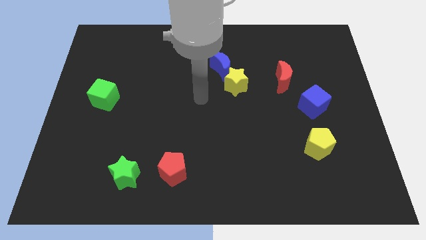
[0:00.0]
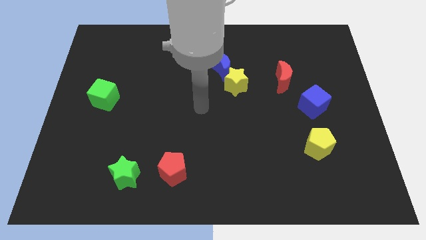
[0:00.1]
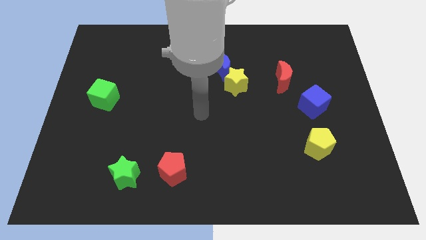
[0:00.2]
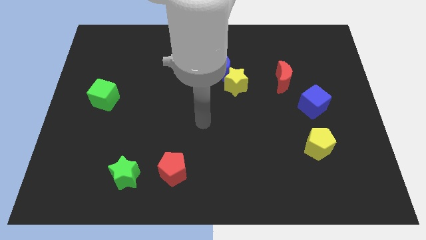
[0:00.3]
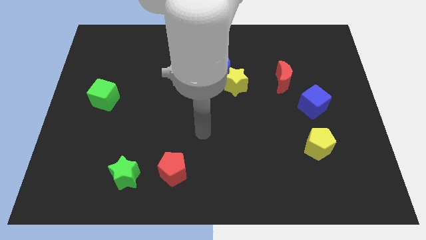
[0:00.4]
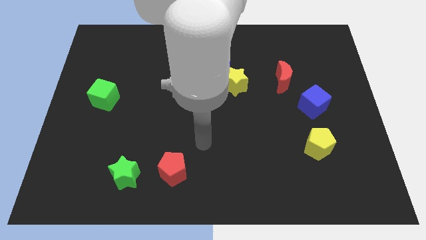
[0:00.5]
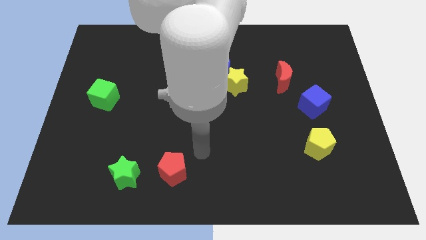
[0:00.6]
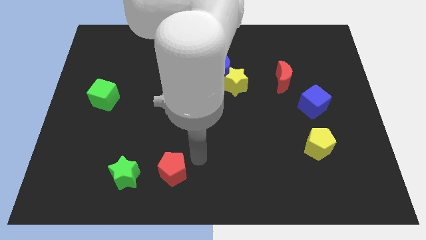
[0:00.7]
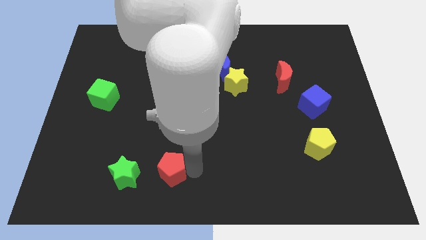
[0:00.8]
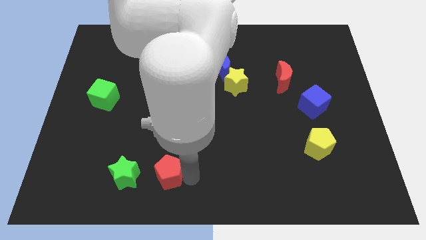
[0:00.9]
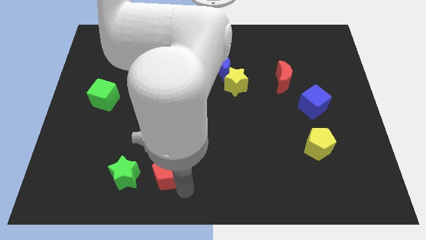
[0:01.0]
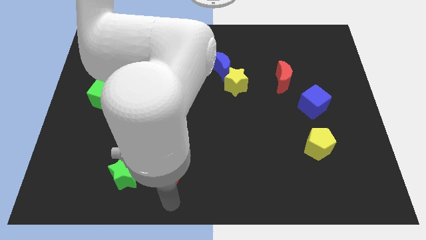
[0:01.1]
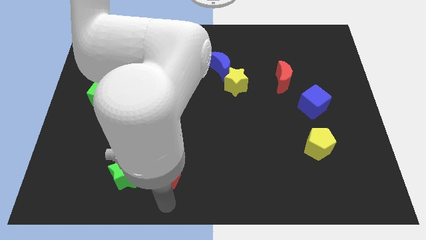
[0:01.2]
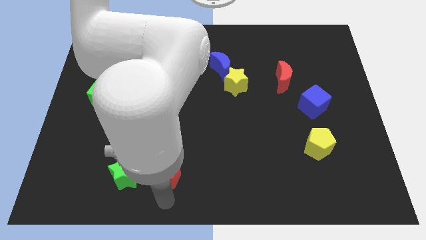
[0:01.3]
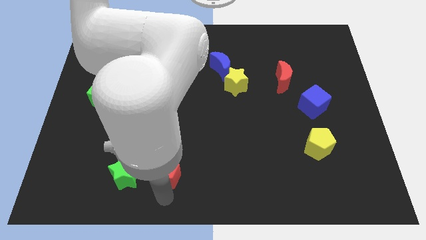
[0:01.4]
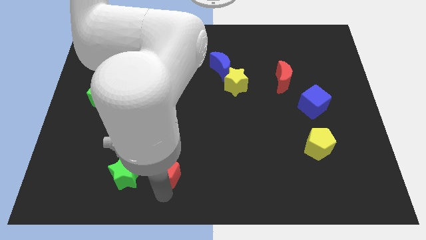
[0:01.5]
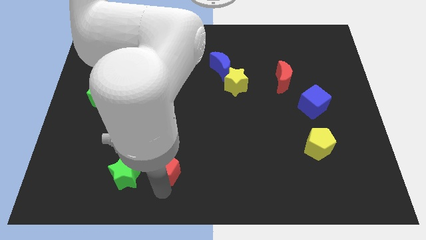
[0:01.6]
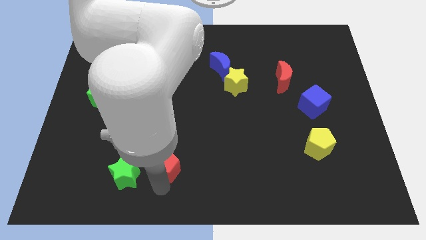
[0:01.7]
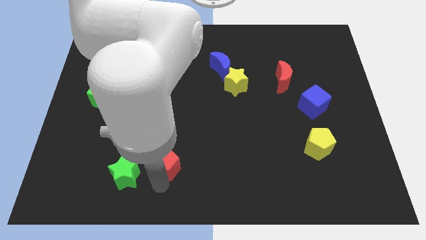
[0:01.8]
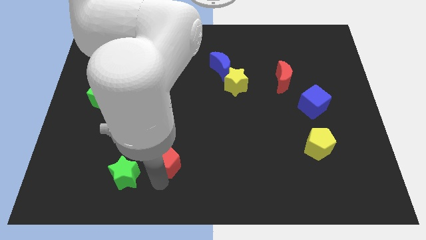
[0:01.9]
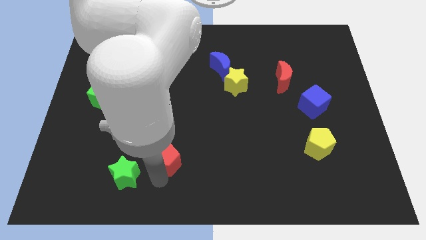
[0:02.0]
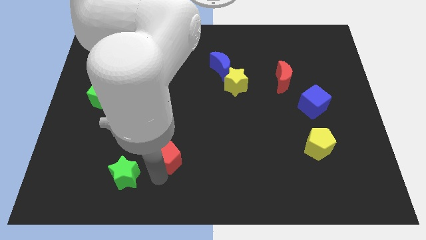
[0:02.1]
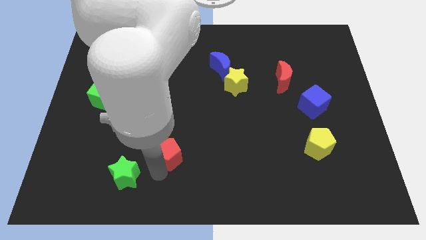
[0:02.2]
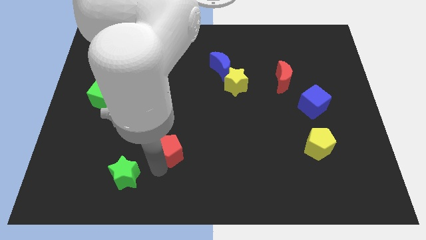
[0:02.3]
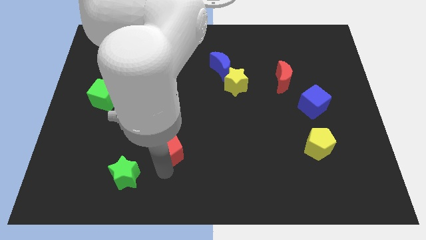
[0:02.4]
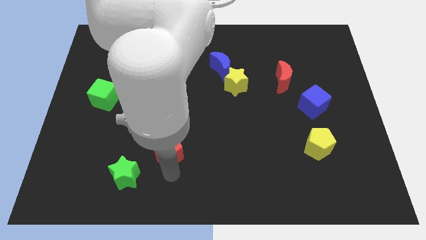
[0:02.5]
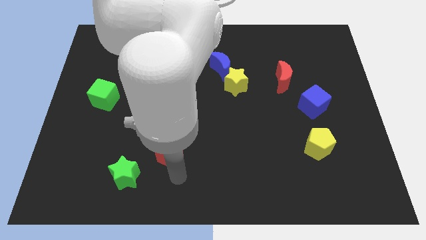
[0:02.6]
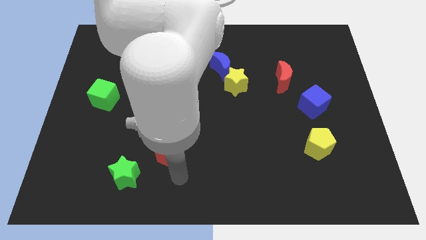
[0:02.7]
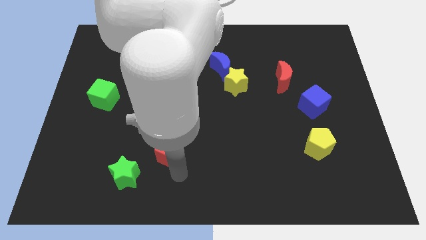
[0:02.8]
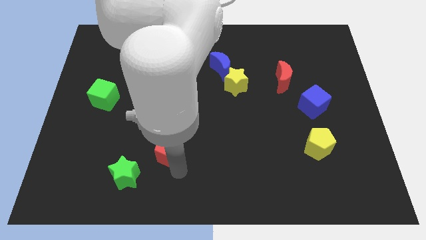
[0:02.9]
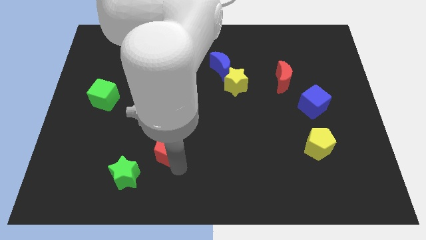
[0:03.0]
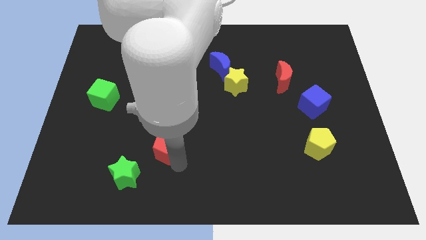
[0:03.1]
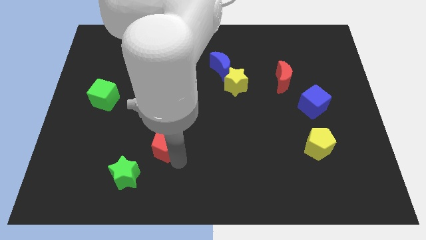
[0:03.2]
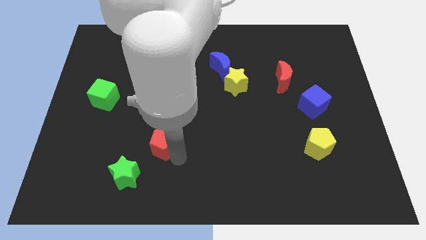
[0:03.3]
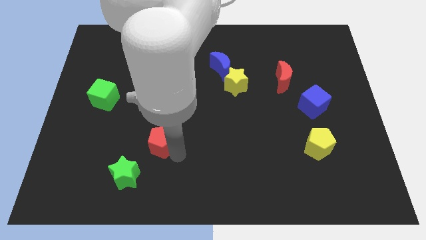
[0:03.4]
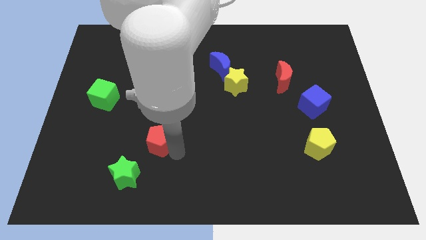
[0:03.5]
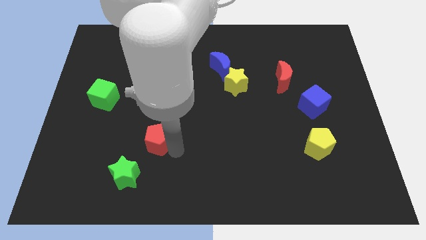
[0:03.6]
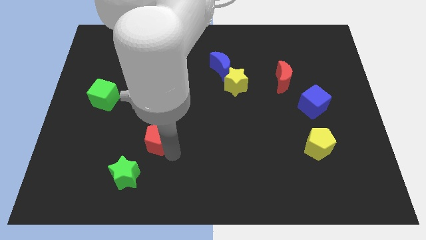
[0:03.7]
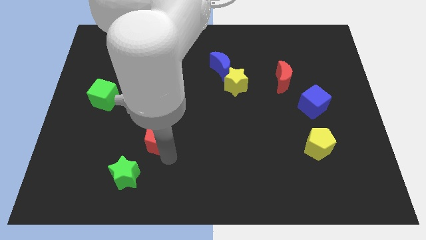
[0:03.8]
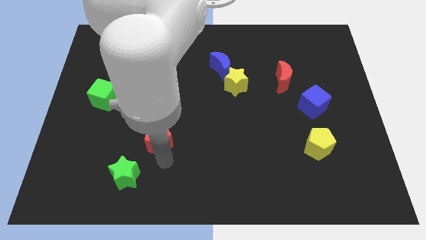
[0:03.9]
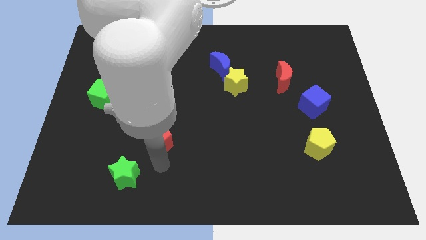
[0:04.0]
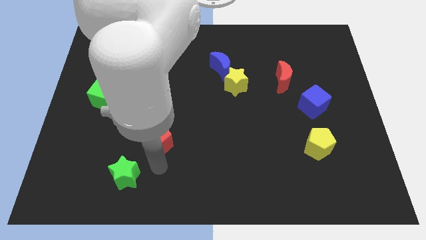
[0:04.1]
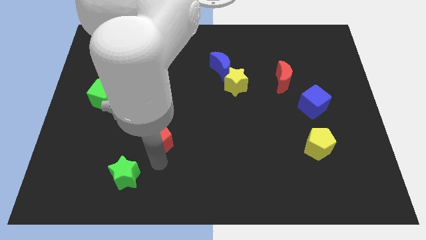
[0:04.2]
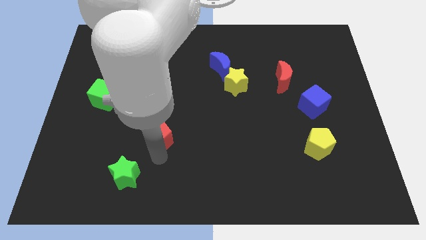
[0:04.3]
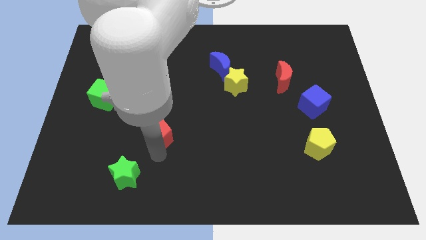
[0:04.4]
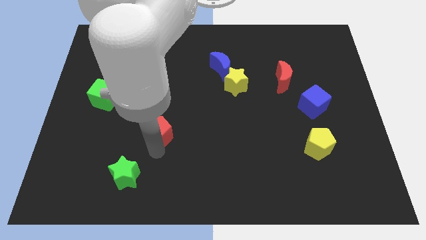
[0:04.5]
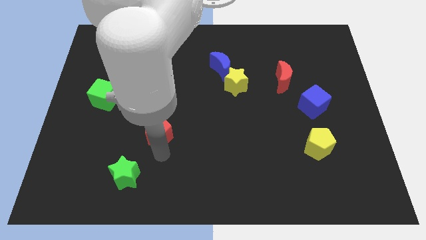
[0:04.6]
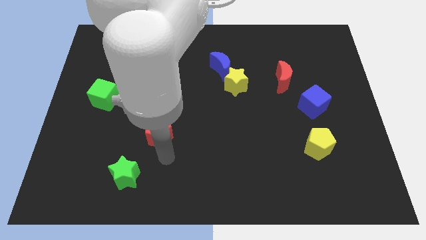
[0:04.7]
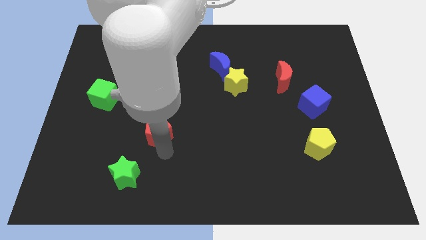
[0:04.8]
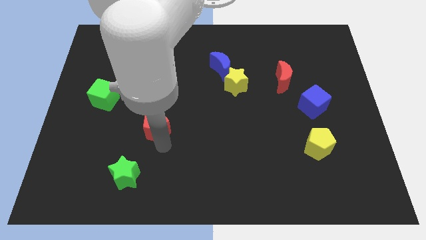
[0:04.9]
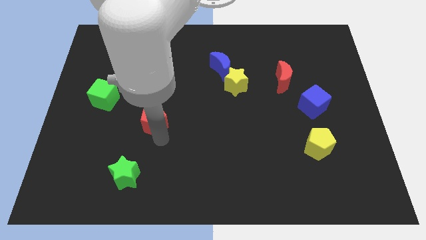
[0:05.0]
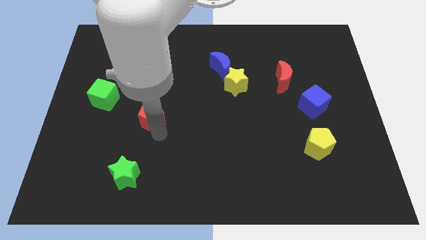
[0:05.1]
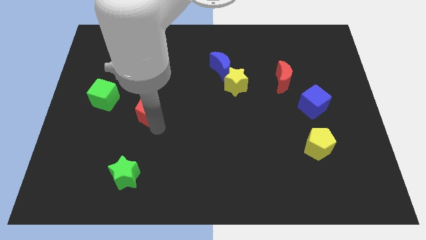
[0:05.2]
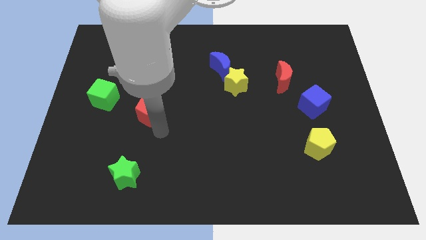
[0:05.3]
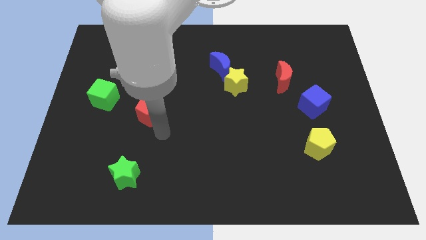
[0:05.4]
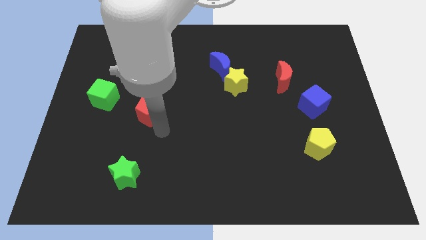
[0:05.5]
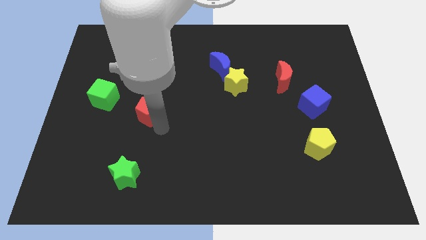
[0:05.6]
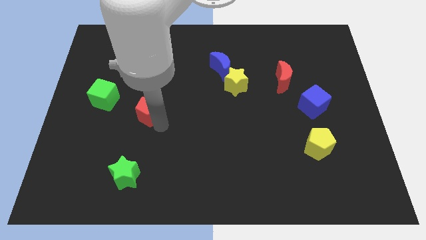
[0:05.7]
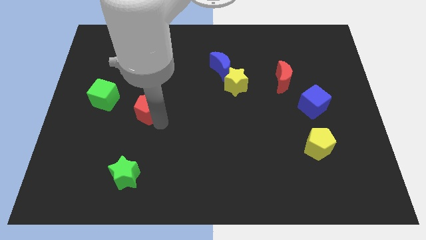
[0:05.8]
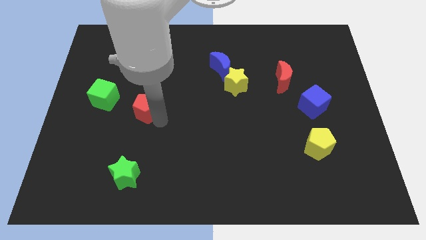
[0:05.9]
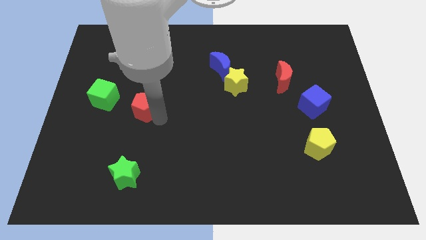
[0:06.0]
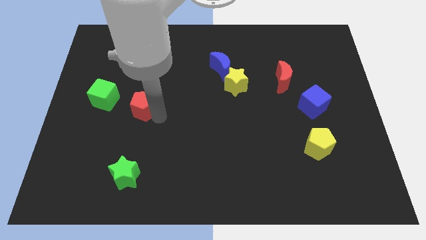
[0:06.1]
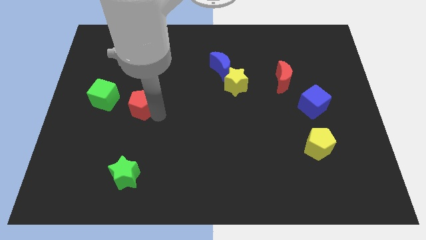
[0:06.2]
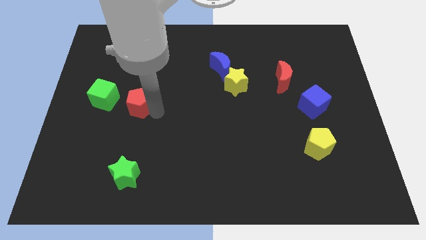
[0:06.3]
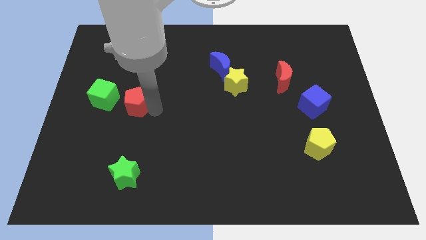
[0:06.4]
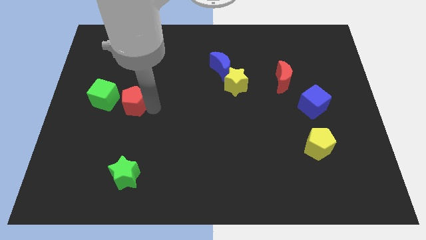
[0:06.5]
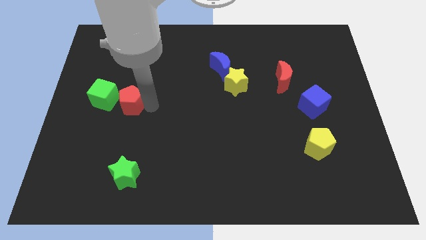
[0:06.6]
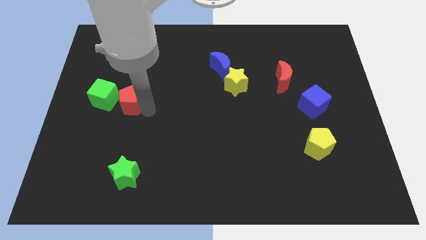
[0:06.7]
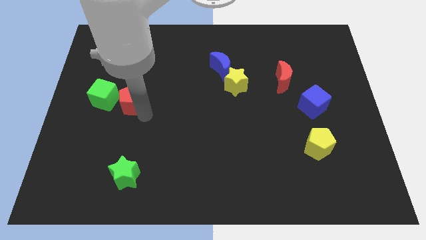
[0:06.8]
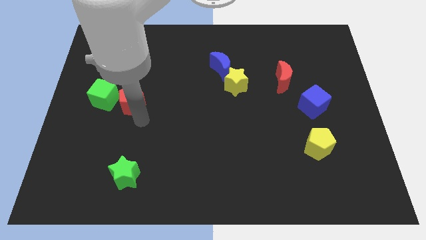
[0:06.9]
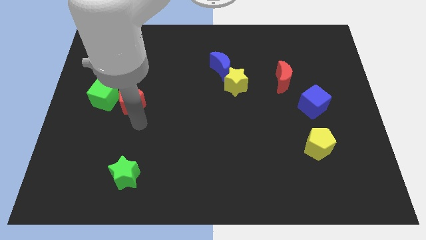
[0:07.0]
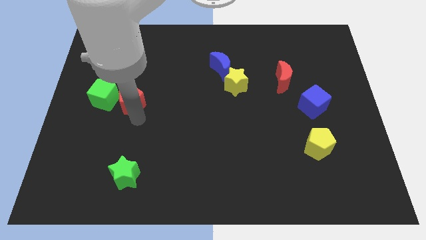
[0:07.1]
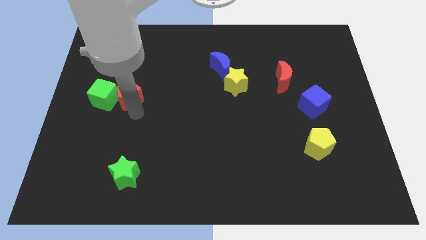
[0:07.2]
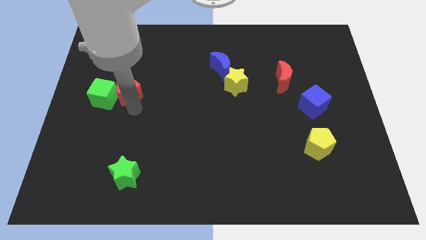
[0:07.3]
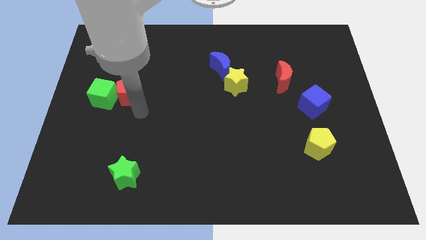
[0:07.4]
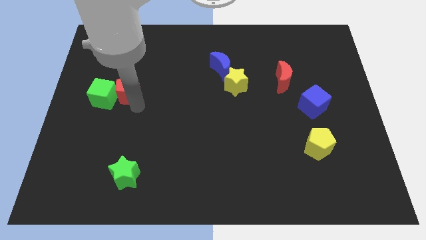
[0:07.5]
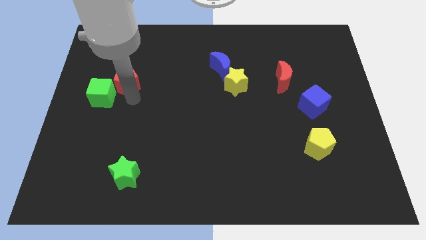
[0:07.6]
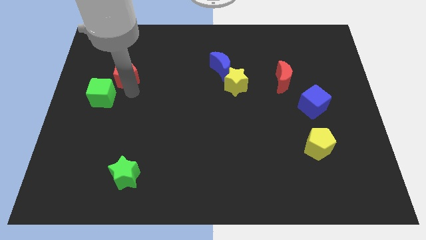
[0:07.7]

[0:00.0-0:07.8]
slide the red pentagon to the top of the green cube
